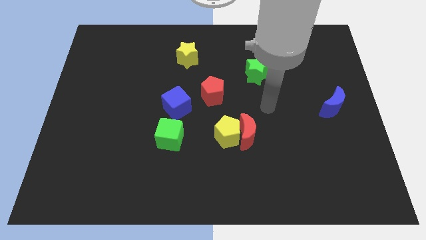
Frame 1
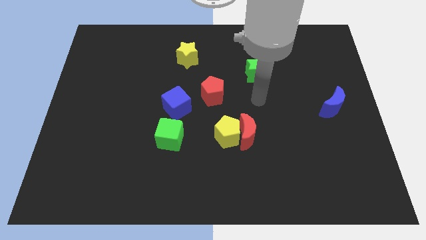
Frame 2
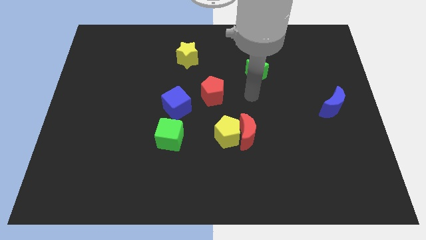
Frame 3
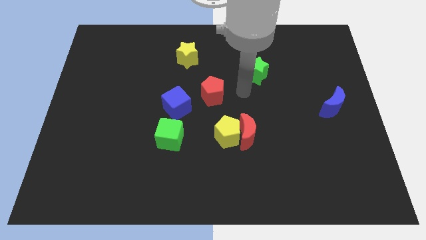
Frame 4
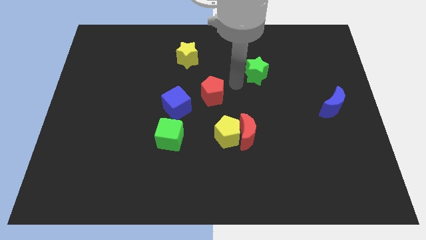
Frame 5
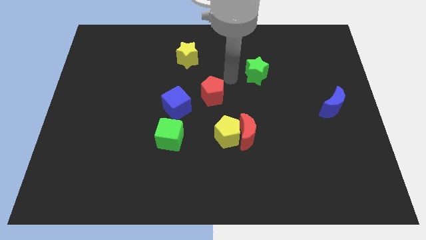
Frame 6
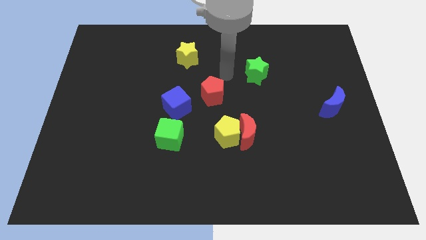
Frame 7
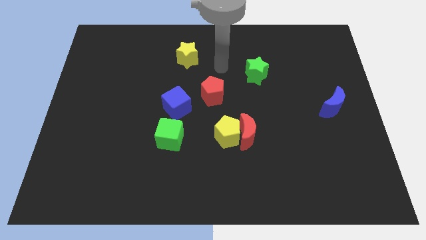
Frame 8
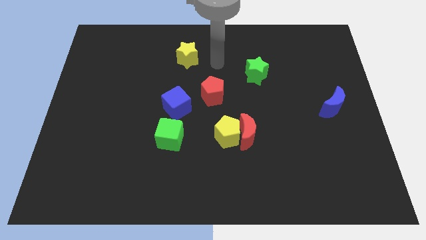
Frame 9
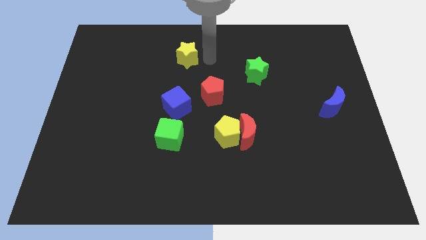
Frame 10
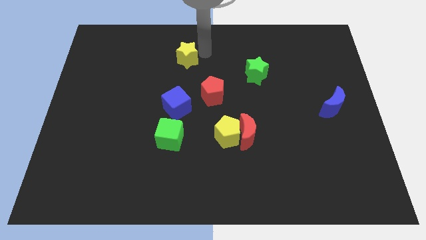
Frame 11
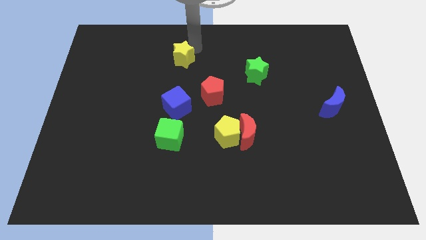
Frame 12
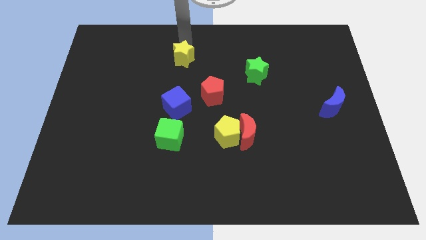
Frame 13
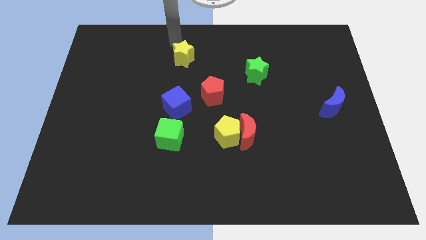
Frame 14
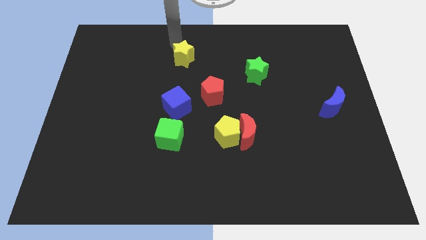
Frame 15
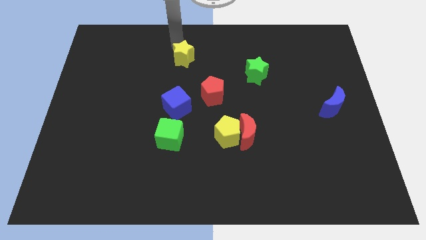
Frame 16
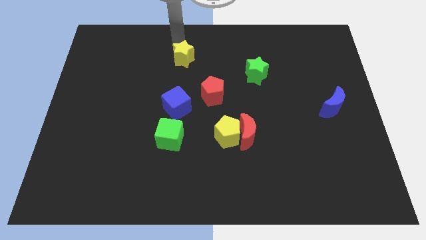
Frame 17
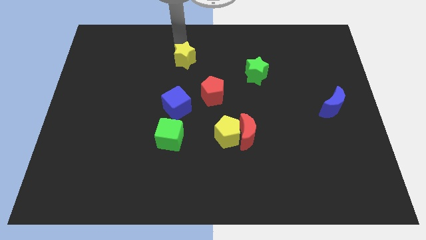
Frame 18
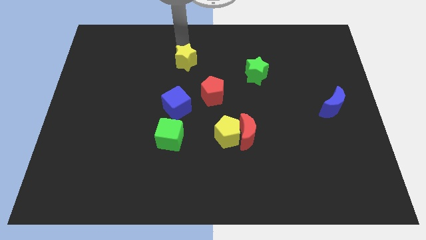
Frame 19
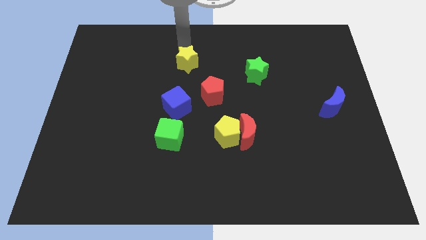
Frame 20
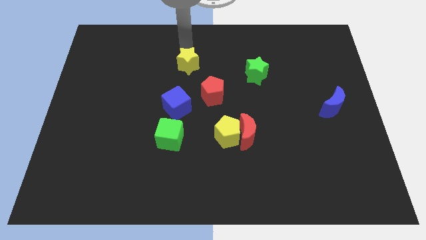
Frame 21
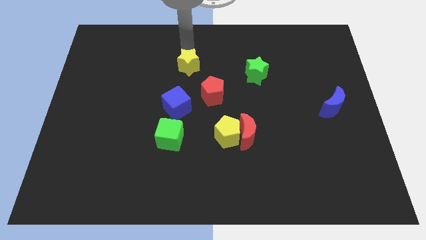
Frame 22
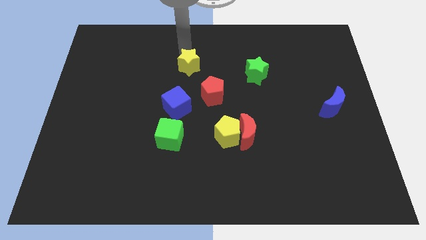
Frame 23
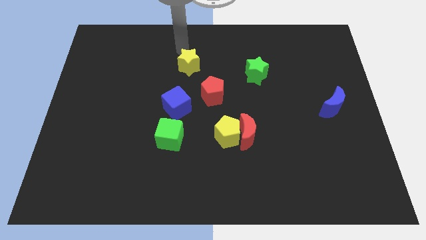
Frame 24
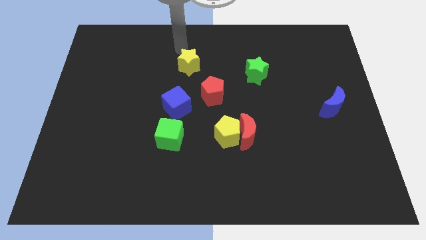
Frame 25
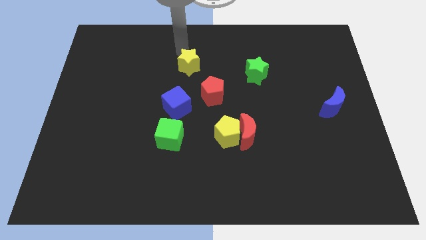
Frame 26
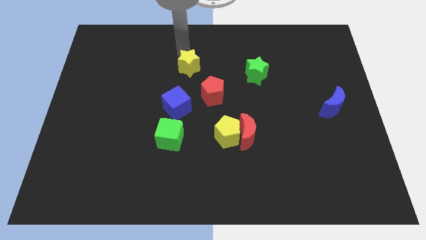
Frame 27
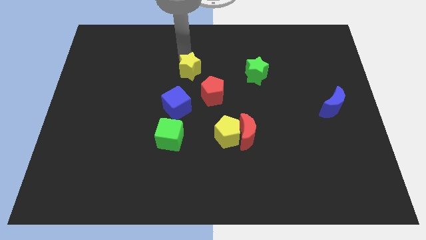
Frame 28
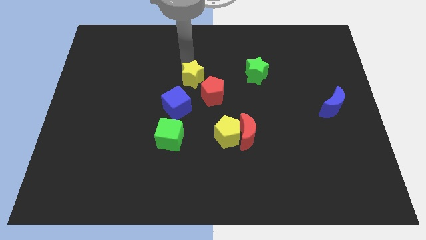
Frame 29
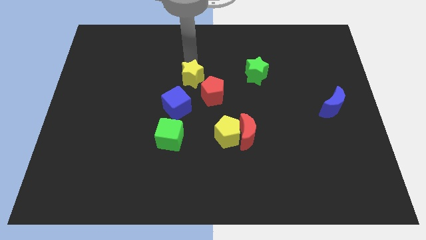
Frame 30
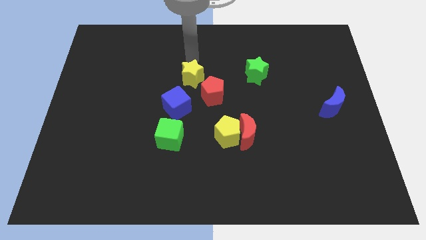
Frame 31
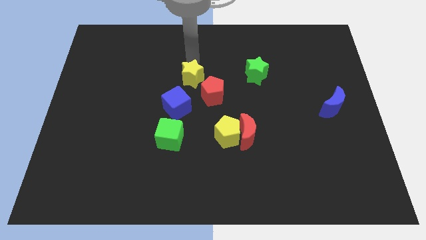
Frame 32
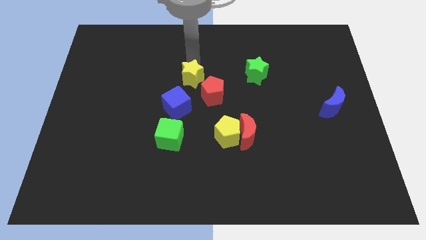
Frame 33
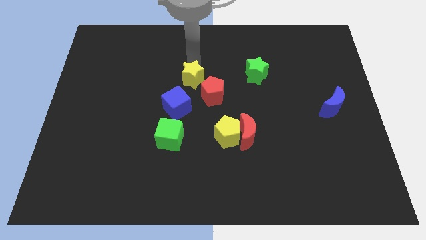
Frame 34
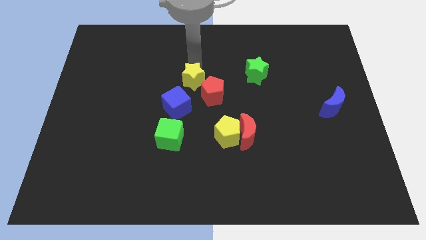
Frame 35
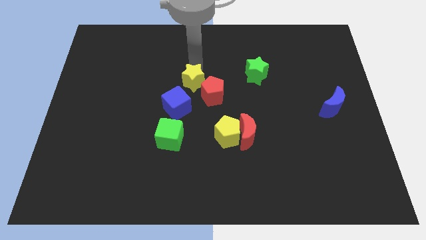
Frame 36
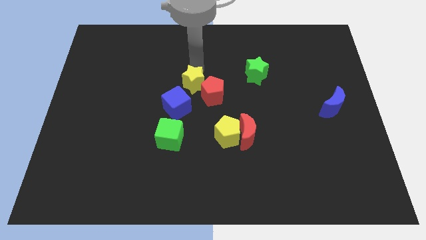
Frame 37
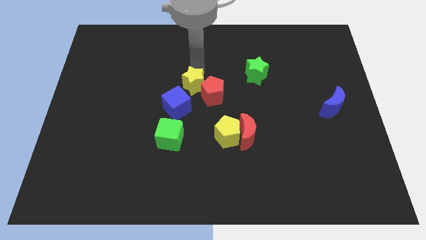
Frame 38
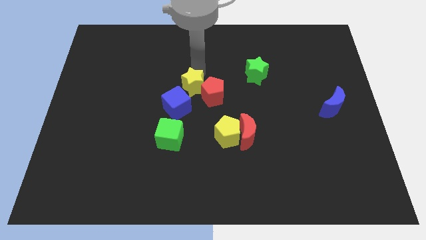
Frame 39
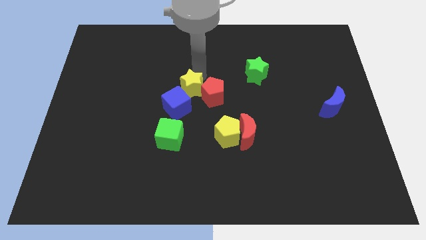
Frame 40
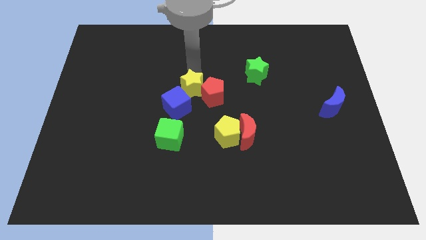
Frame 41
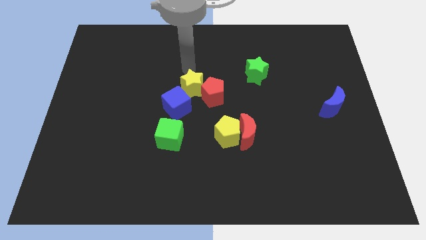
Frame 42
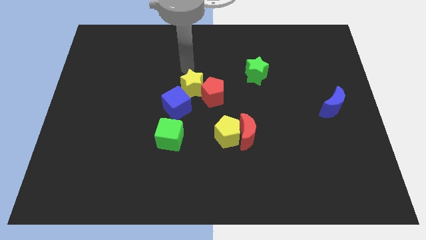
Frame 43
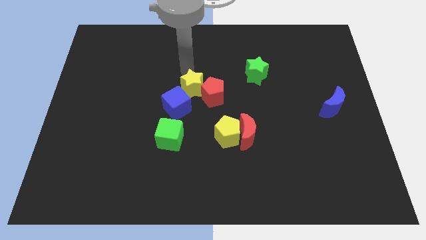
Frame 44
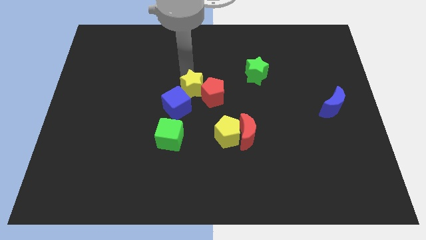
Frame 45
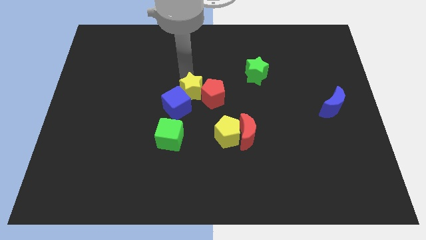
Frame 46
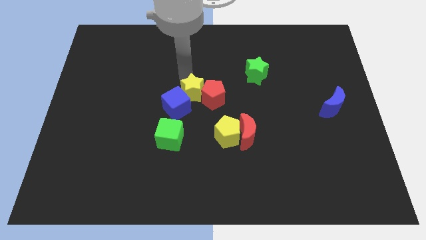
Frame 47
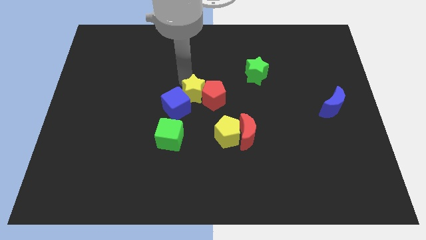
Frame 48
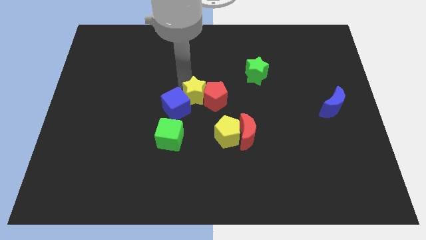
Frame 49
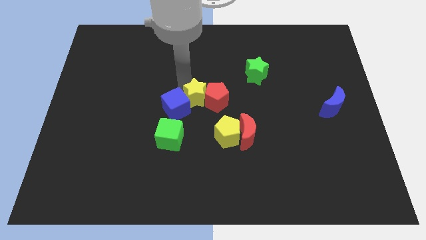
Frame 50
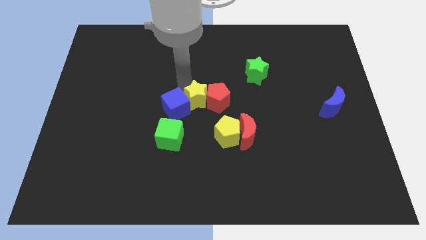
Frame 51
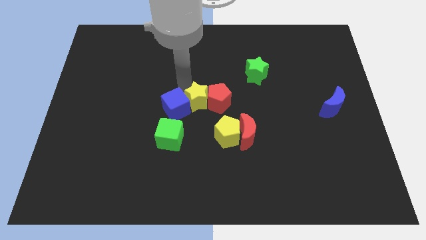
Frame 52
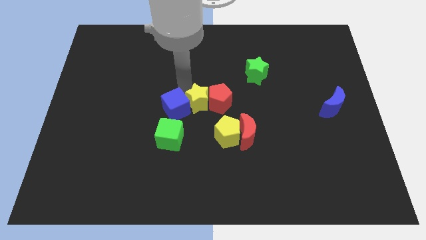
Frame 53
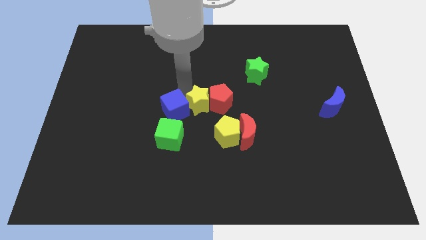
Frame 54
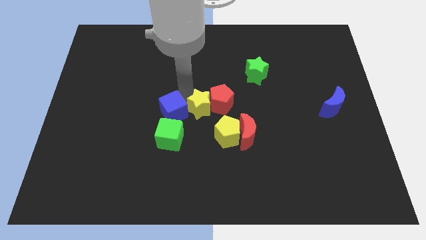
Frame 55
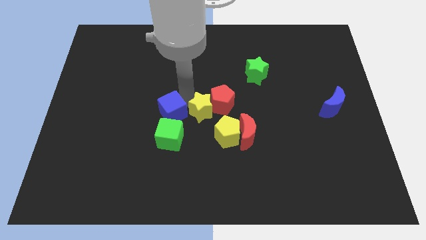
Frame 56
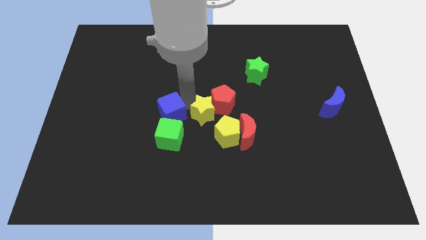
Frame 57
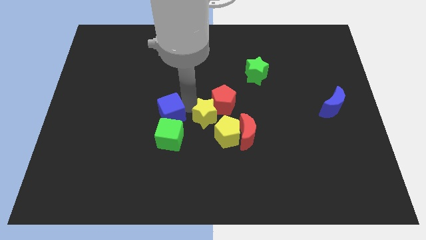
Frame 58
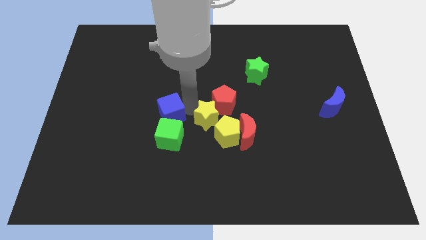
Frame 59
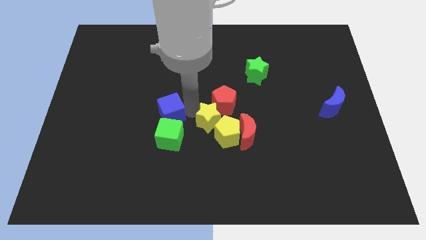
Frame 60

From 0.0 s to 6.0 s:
push the yellow star to the yellow pentagon

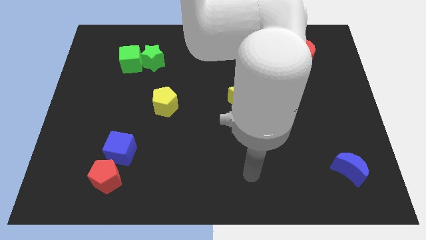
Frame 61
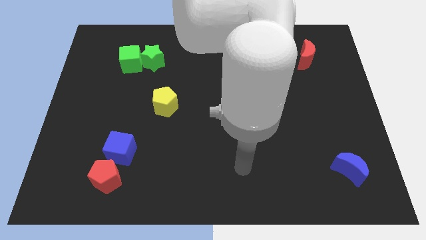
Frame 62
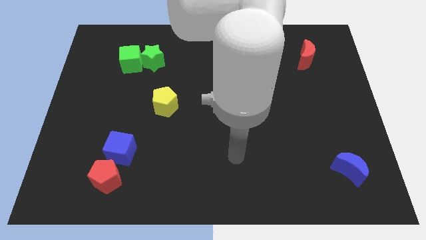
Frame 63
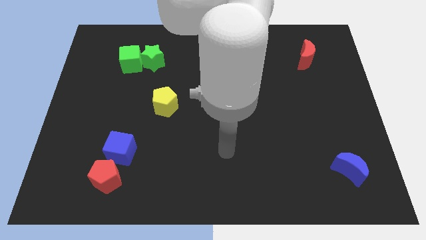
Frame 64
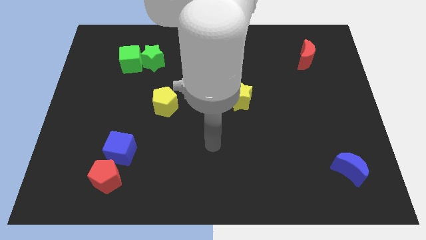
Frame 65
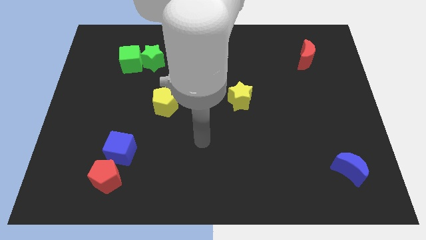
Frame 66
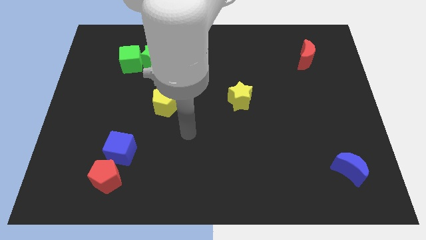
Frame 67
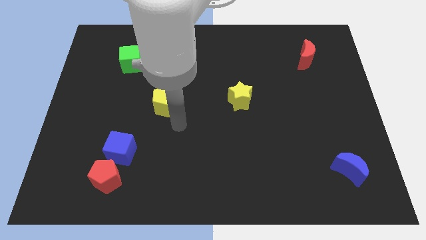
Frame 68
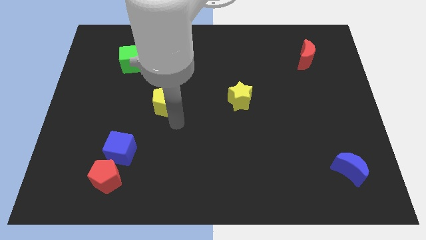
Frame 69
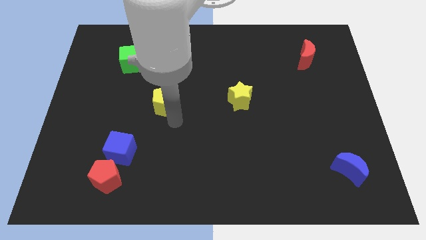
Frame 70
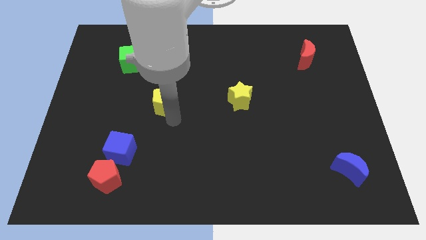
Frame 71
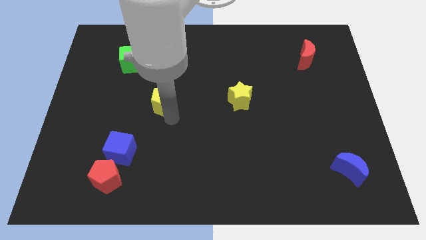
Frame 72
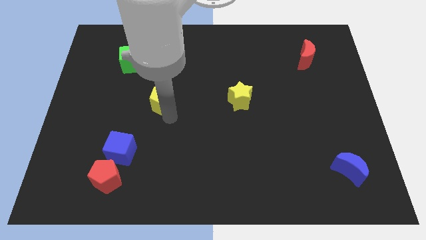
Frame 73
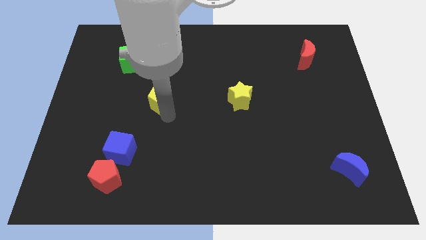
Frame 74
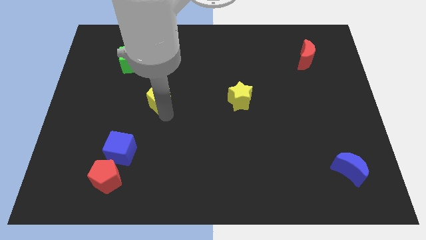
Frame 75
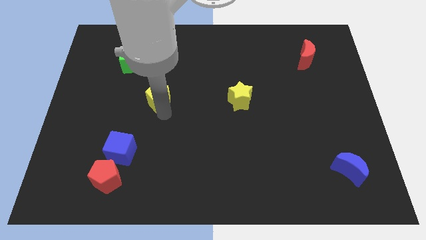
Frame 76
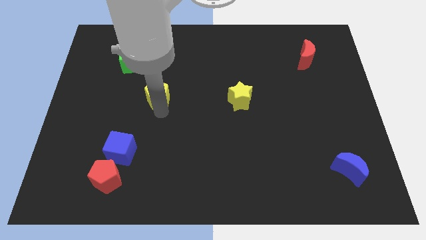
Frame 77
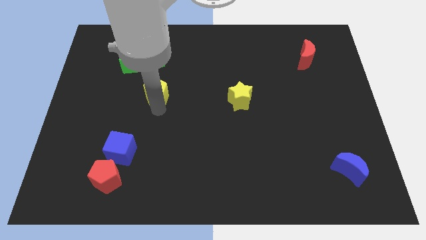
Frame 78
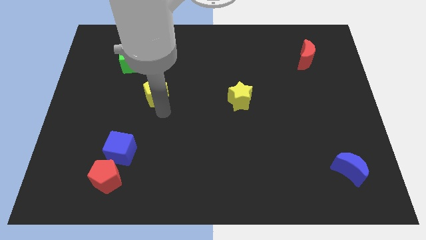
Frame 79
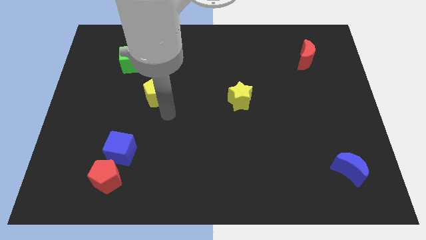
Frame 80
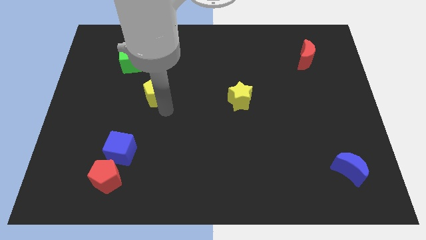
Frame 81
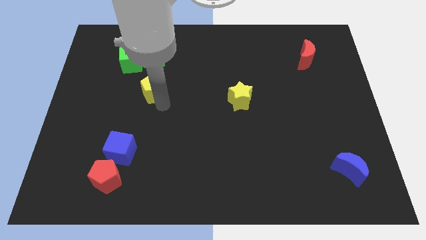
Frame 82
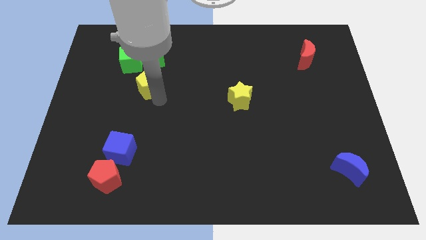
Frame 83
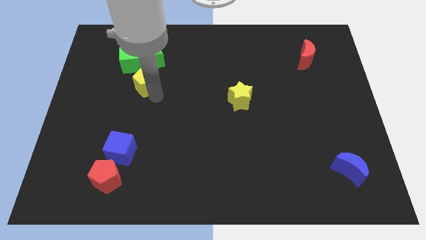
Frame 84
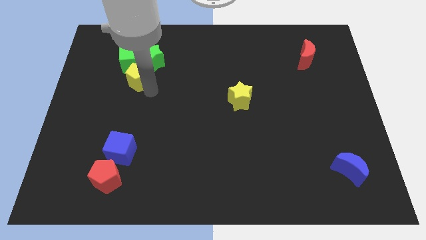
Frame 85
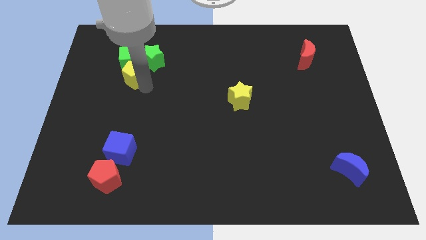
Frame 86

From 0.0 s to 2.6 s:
slide the yellow pentagon next to the green cube
